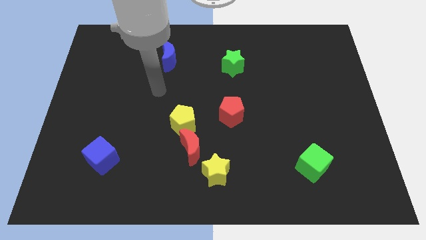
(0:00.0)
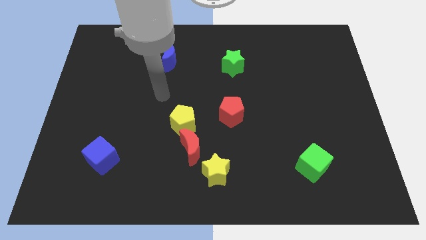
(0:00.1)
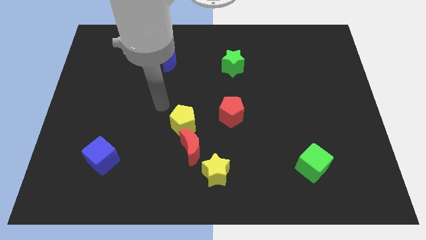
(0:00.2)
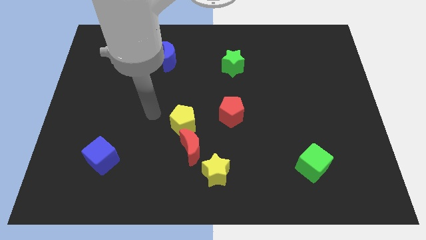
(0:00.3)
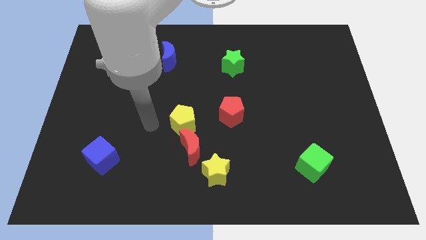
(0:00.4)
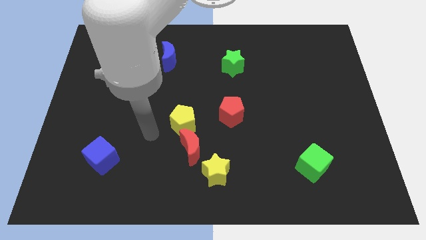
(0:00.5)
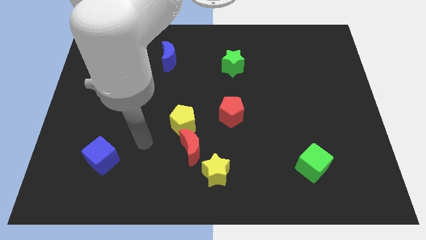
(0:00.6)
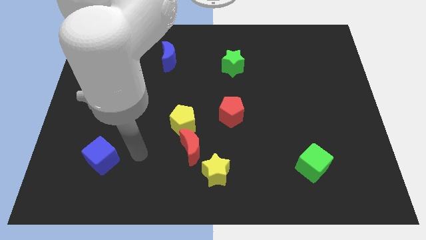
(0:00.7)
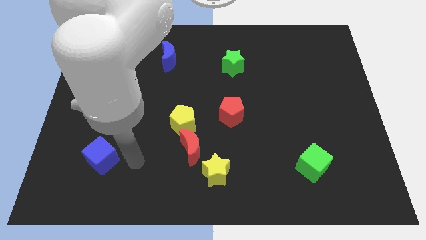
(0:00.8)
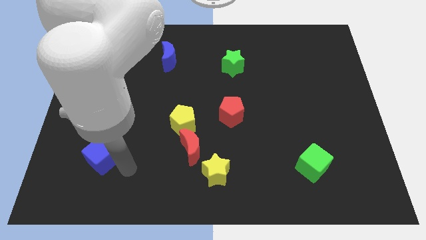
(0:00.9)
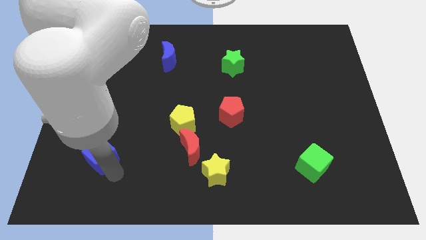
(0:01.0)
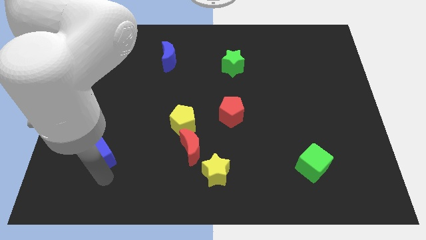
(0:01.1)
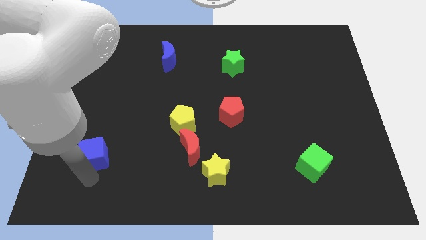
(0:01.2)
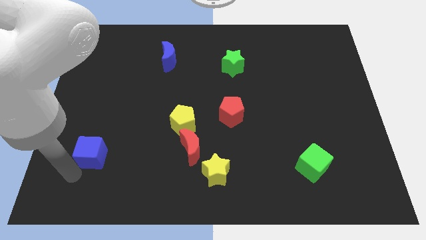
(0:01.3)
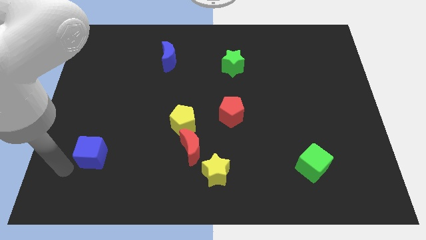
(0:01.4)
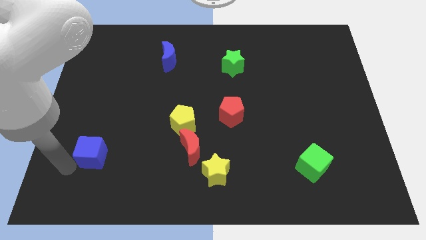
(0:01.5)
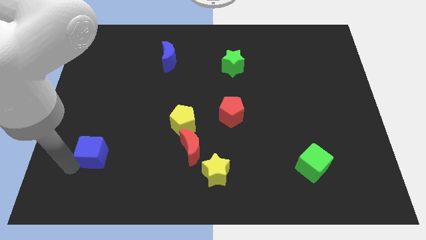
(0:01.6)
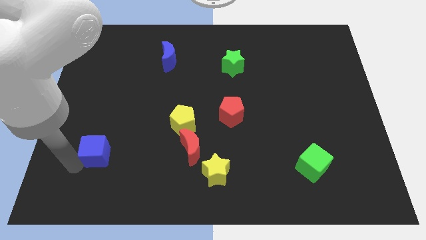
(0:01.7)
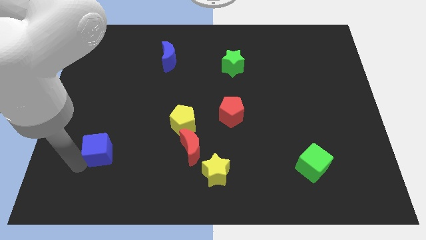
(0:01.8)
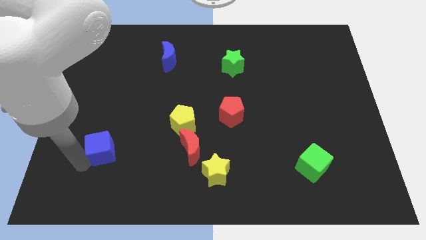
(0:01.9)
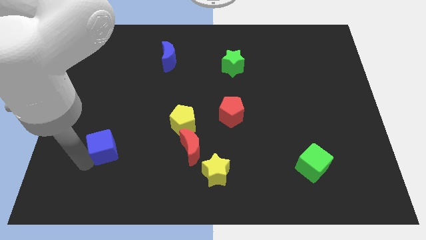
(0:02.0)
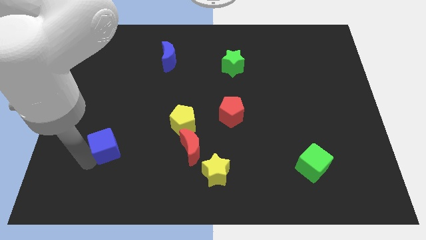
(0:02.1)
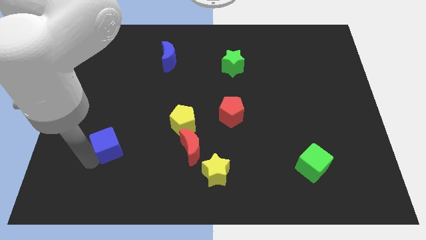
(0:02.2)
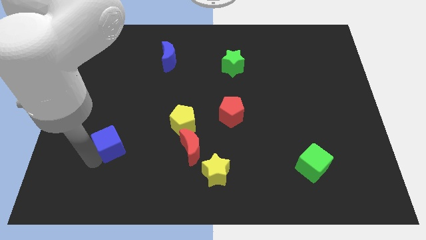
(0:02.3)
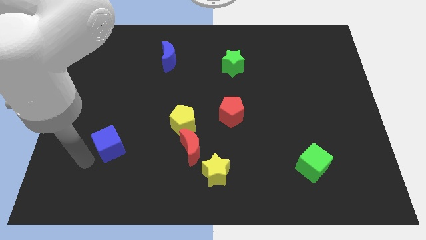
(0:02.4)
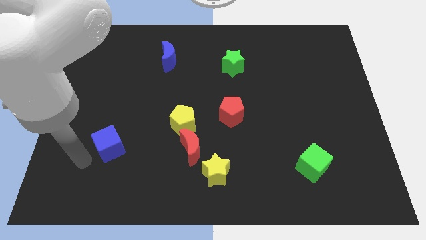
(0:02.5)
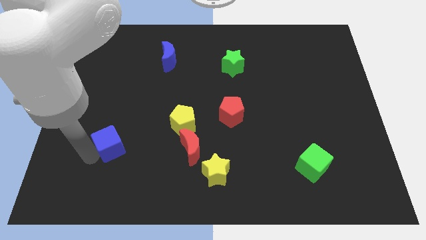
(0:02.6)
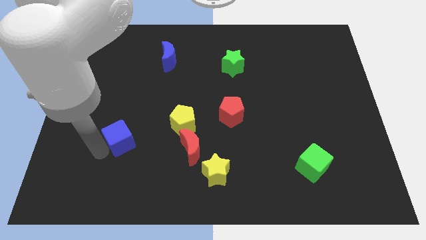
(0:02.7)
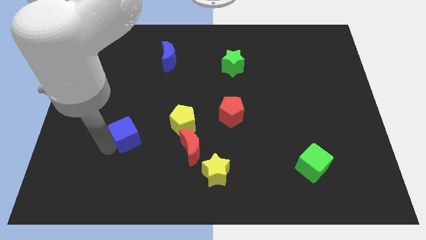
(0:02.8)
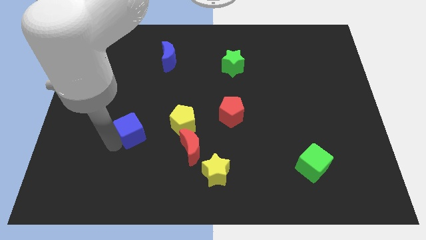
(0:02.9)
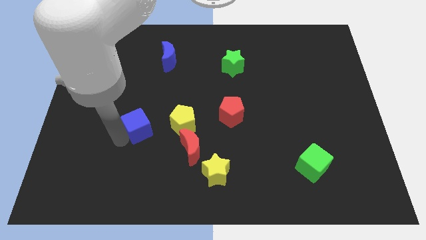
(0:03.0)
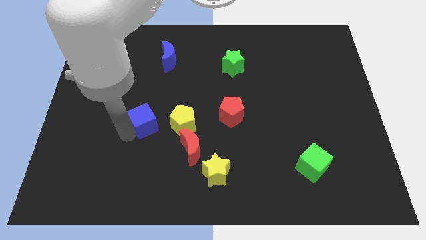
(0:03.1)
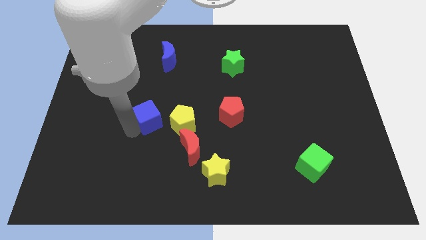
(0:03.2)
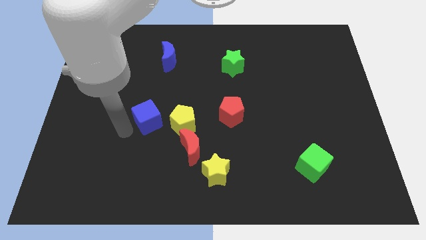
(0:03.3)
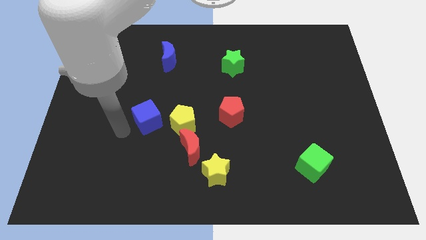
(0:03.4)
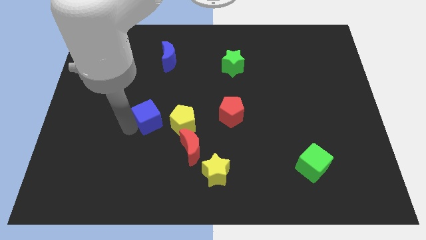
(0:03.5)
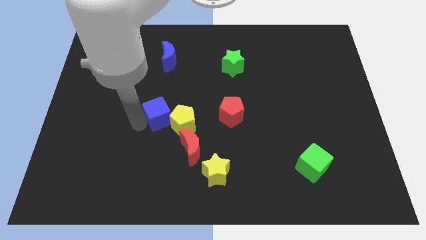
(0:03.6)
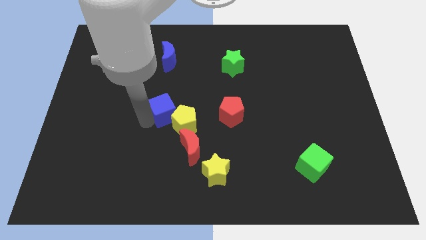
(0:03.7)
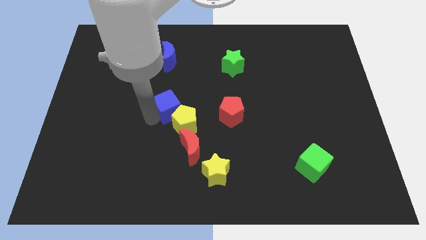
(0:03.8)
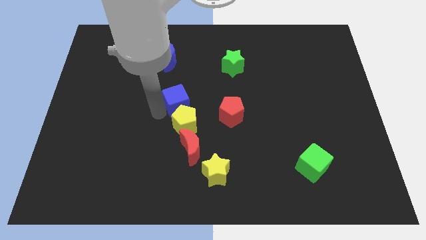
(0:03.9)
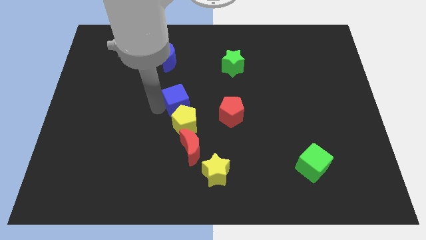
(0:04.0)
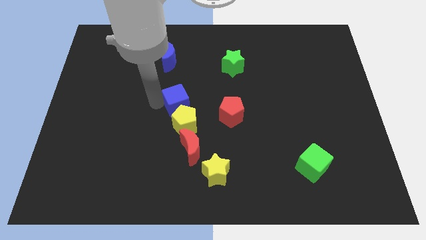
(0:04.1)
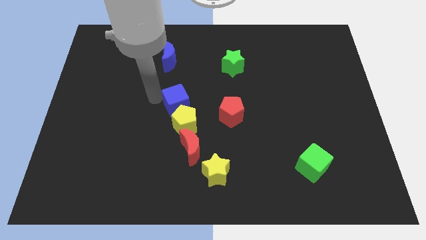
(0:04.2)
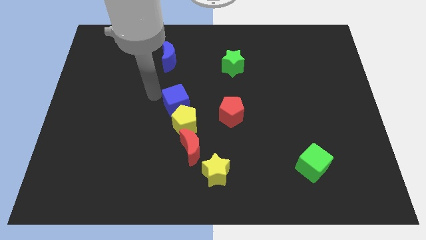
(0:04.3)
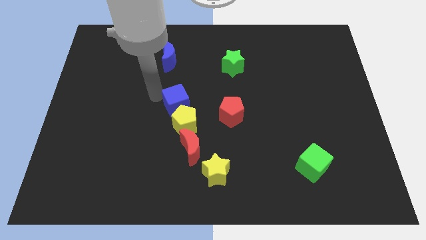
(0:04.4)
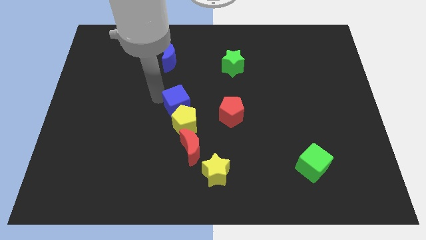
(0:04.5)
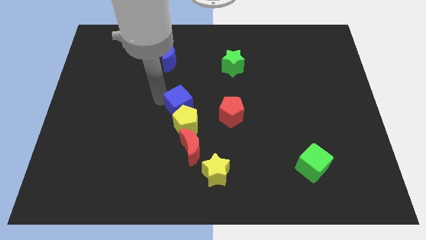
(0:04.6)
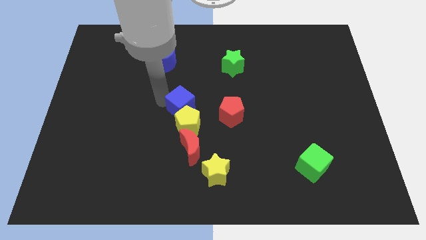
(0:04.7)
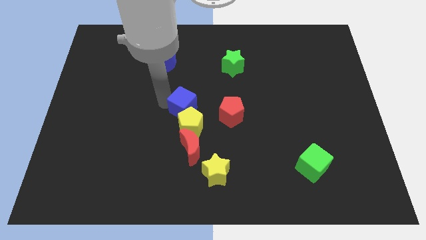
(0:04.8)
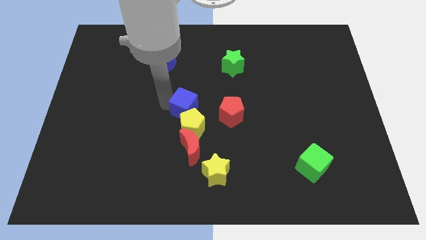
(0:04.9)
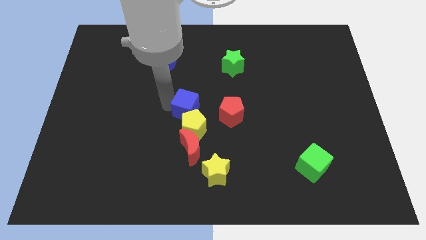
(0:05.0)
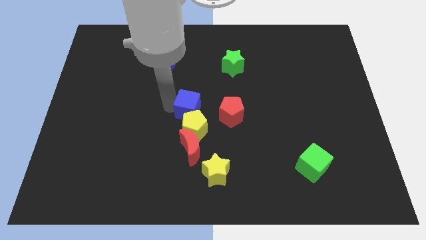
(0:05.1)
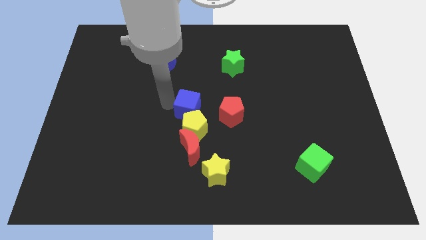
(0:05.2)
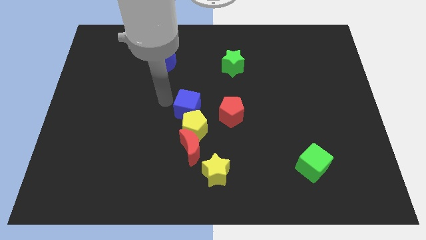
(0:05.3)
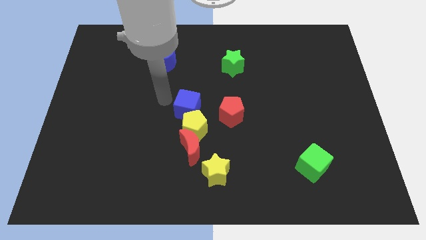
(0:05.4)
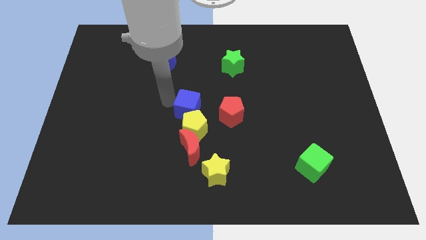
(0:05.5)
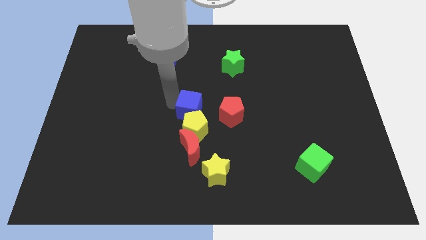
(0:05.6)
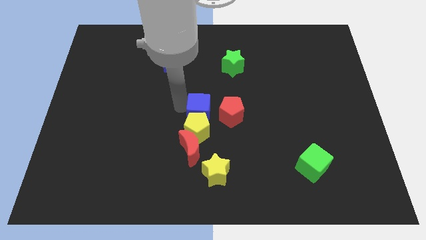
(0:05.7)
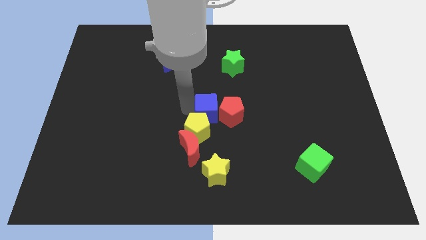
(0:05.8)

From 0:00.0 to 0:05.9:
push the blue cube towards the red pentagon

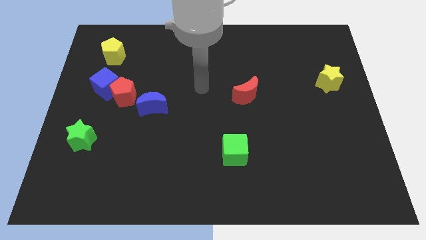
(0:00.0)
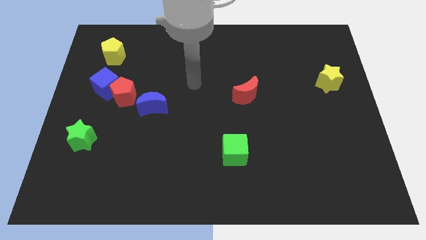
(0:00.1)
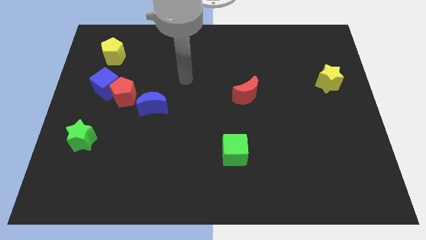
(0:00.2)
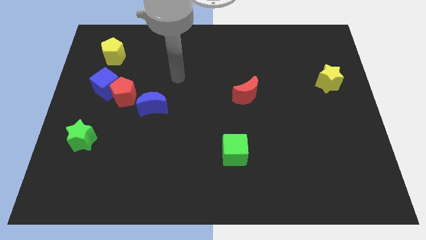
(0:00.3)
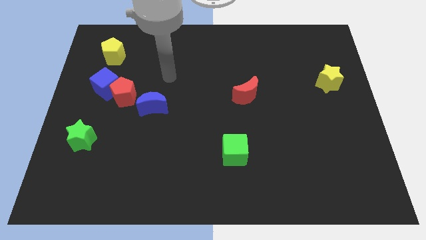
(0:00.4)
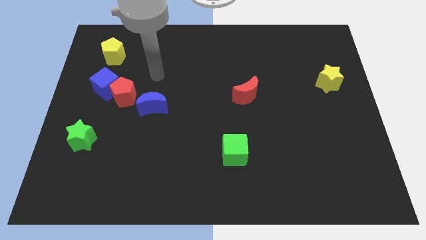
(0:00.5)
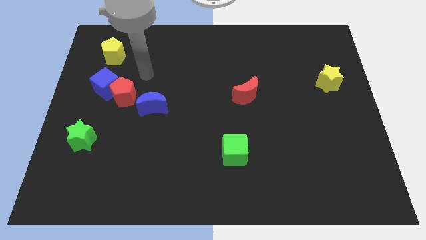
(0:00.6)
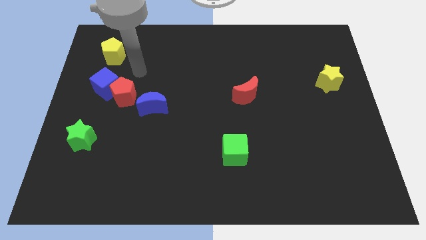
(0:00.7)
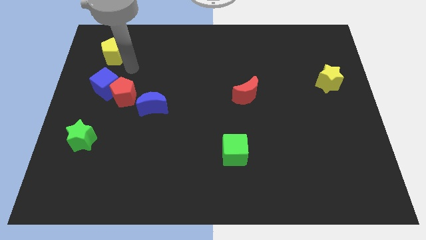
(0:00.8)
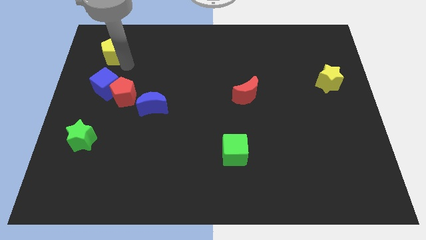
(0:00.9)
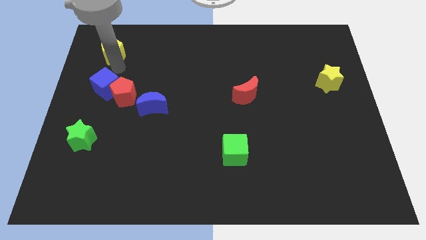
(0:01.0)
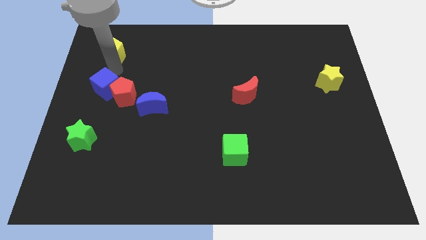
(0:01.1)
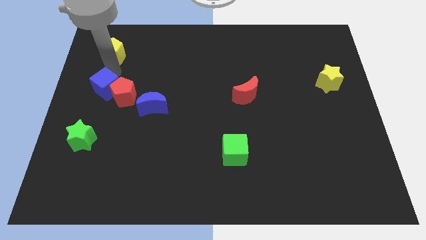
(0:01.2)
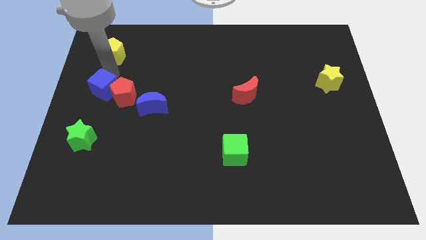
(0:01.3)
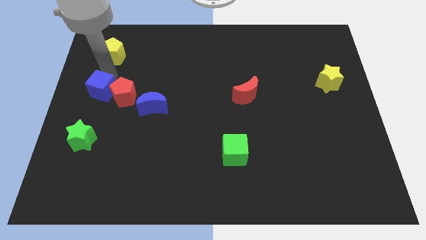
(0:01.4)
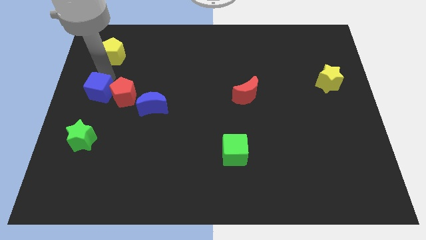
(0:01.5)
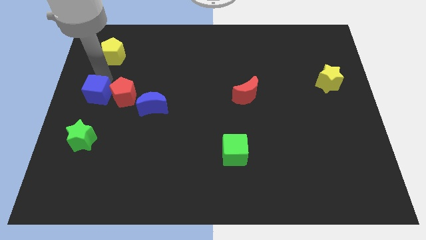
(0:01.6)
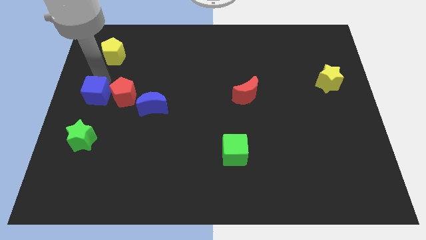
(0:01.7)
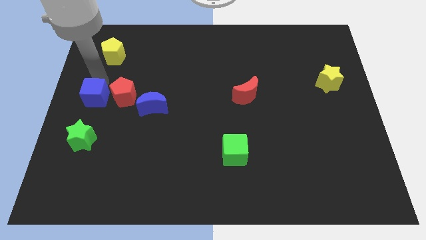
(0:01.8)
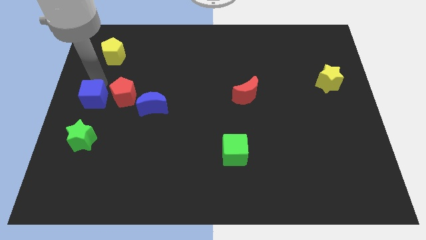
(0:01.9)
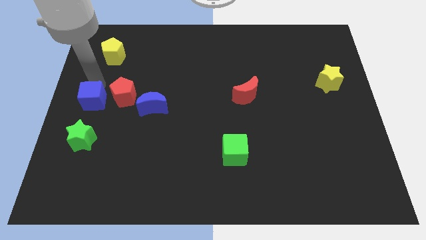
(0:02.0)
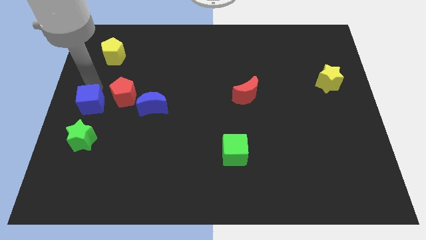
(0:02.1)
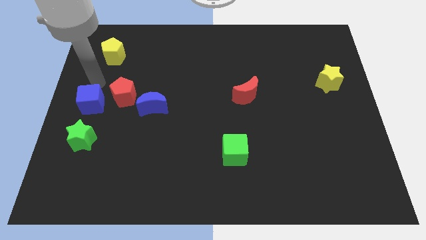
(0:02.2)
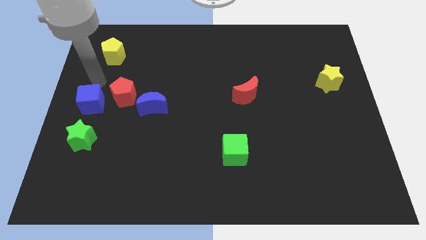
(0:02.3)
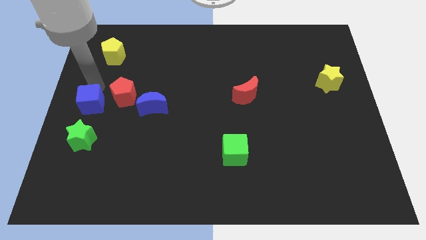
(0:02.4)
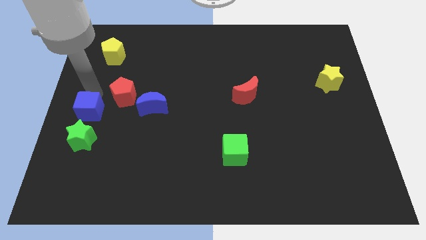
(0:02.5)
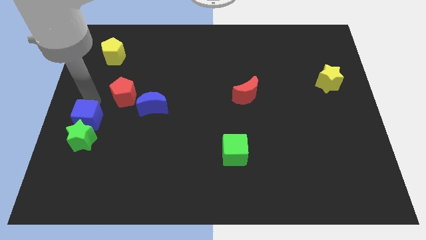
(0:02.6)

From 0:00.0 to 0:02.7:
slide the blue cube close to the green star
